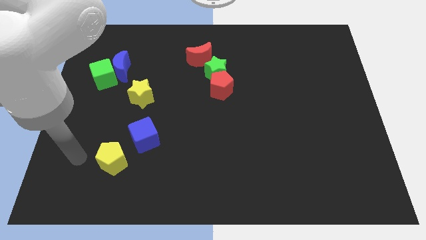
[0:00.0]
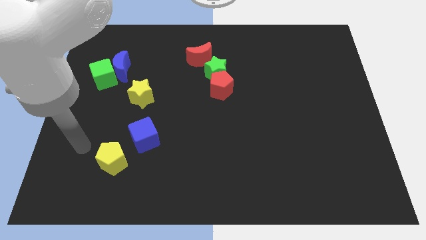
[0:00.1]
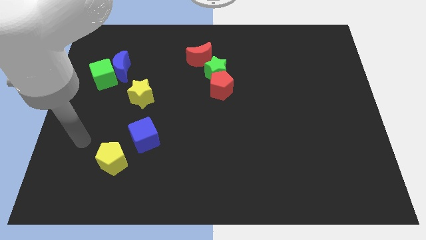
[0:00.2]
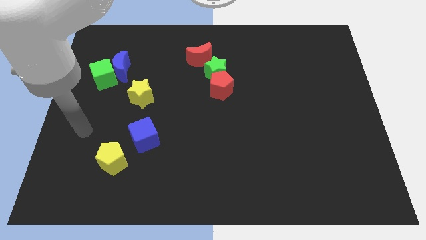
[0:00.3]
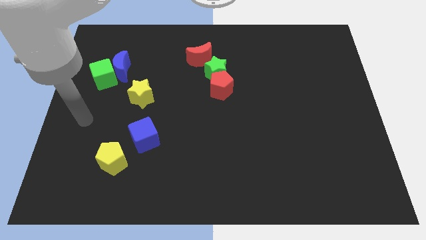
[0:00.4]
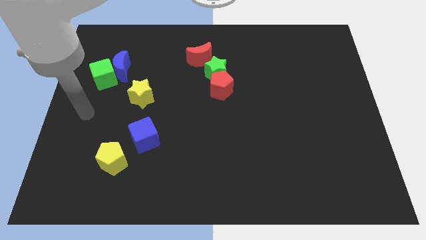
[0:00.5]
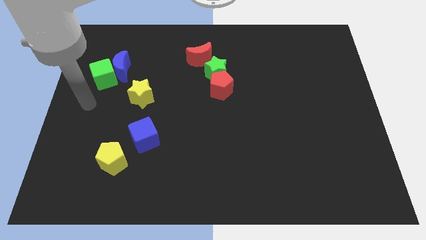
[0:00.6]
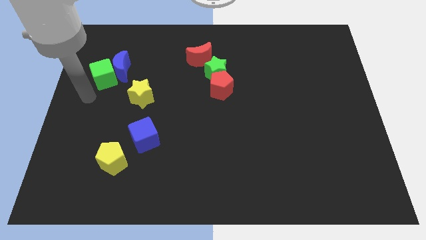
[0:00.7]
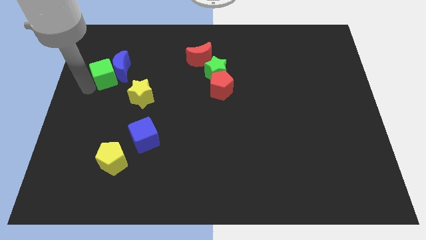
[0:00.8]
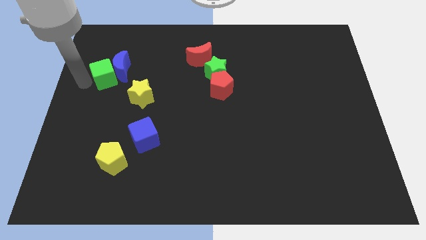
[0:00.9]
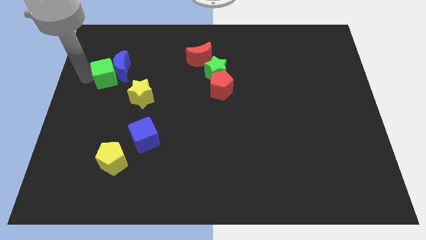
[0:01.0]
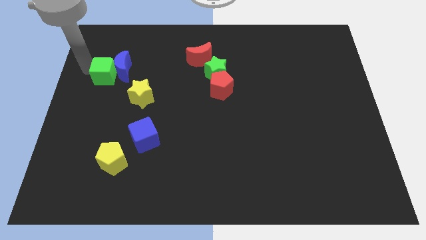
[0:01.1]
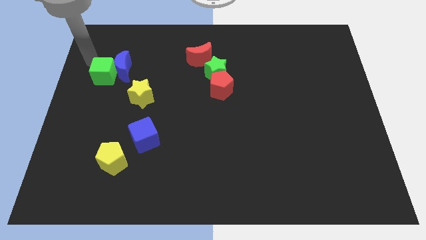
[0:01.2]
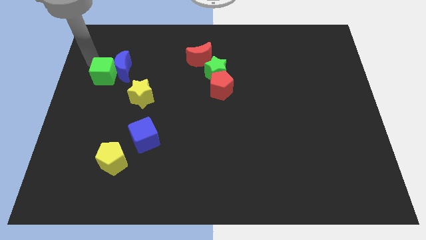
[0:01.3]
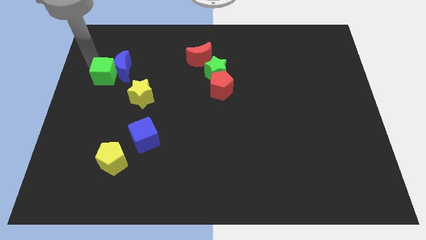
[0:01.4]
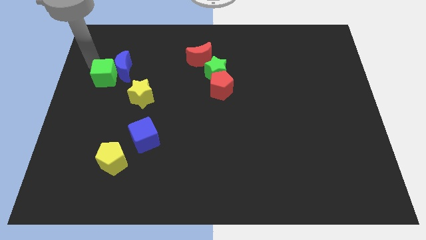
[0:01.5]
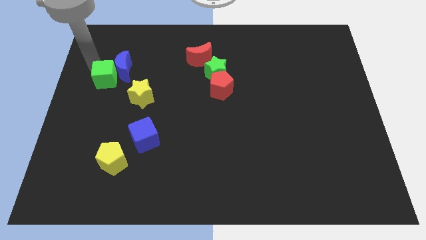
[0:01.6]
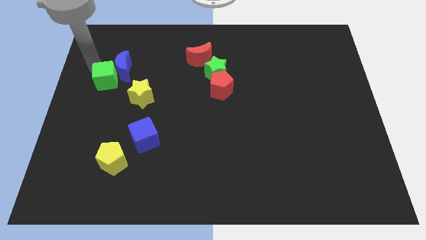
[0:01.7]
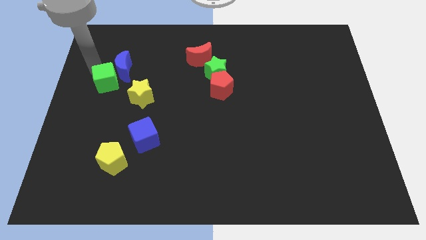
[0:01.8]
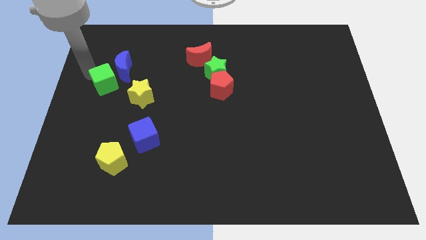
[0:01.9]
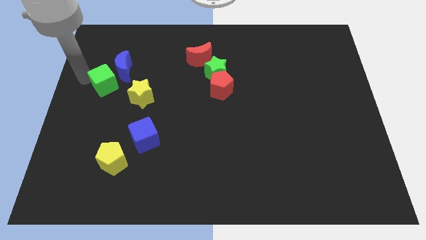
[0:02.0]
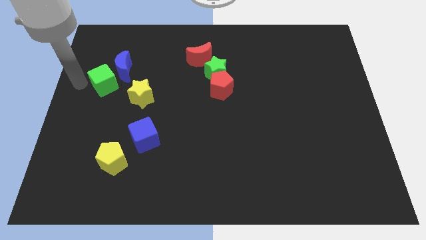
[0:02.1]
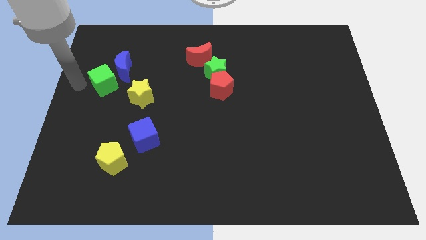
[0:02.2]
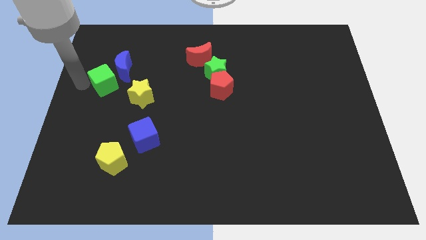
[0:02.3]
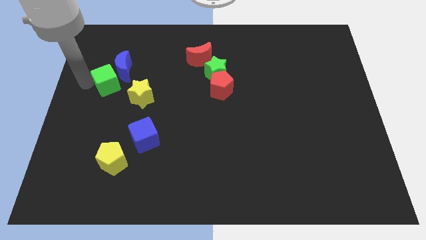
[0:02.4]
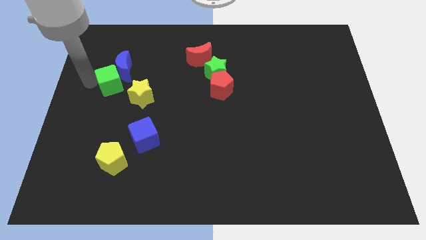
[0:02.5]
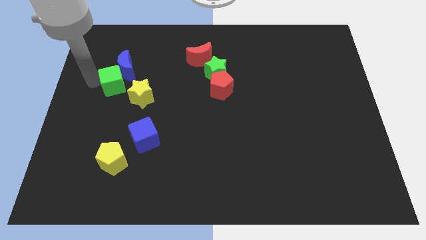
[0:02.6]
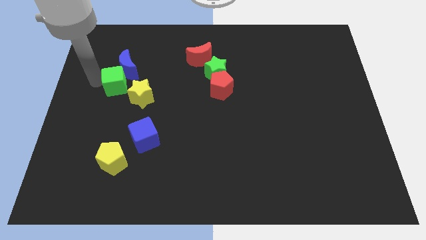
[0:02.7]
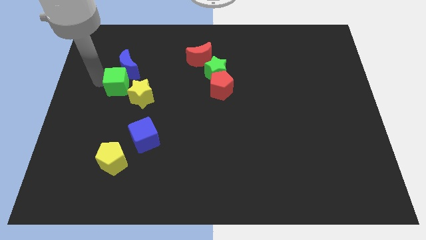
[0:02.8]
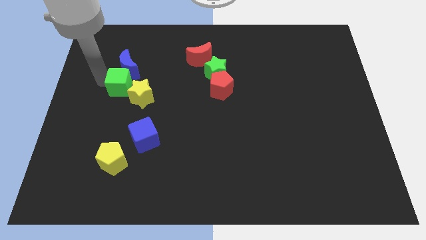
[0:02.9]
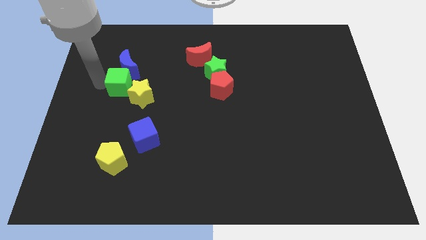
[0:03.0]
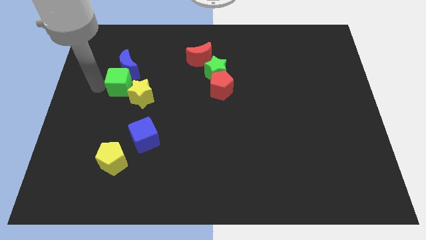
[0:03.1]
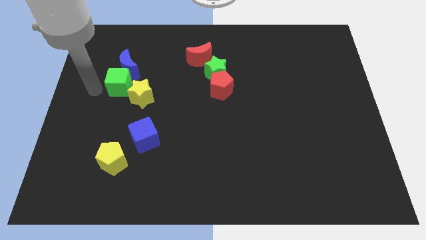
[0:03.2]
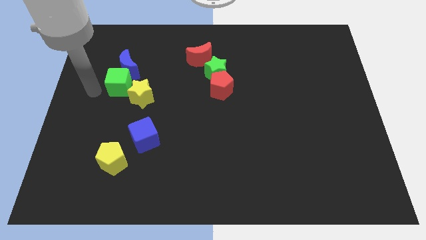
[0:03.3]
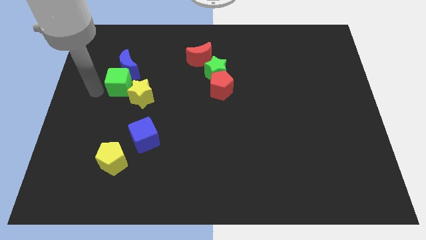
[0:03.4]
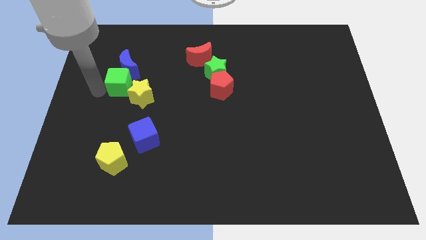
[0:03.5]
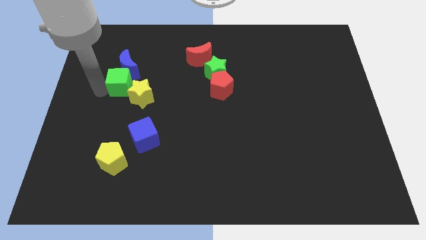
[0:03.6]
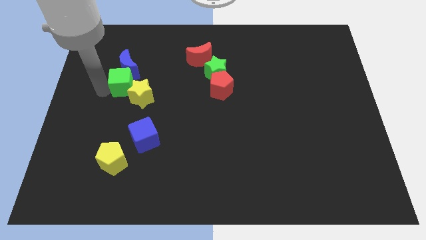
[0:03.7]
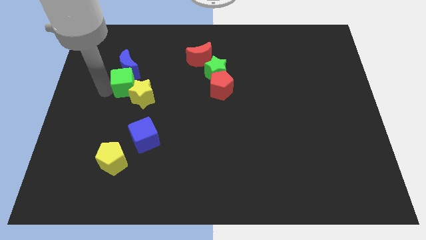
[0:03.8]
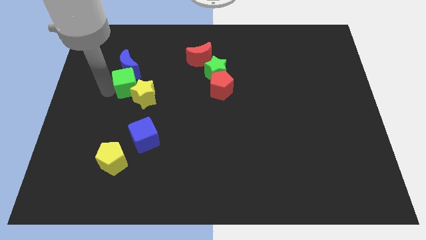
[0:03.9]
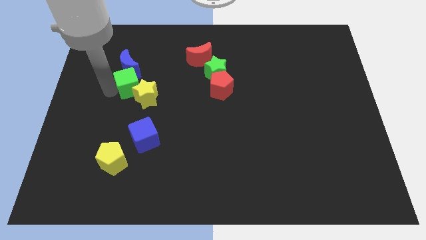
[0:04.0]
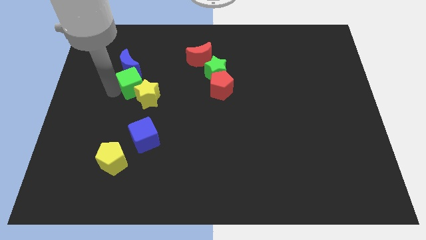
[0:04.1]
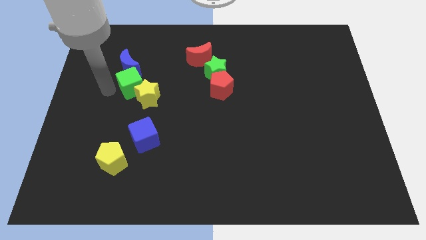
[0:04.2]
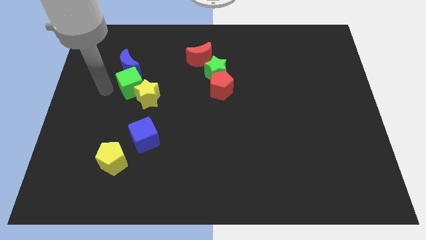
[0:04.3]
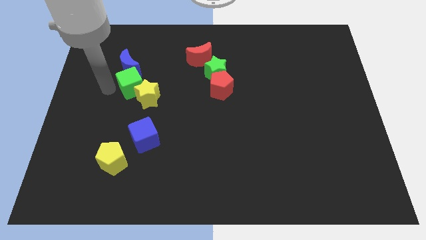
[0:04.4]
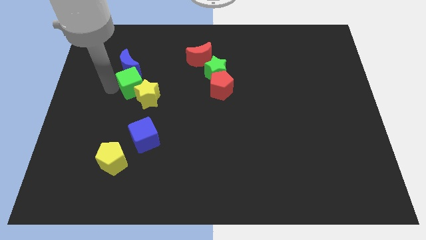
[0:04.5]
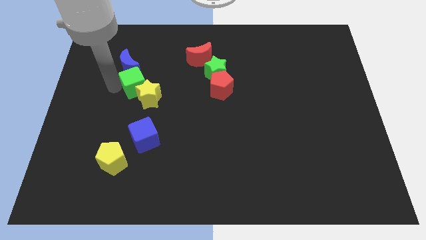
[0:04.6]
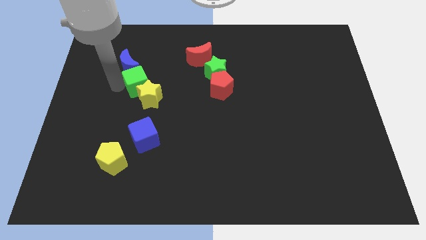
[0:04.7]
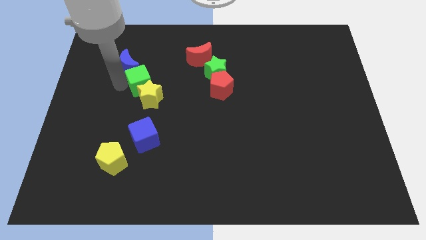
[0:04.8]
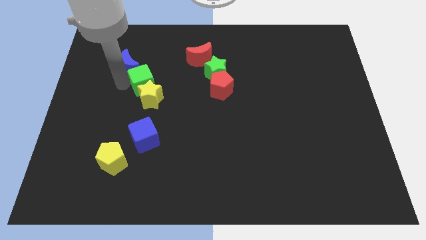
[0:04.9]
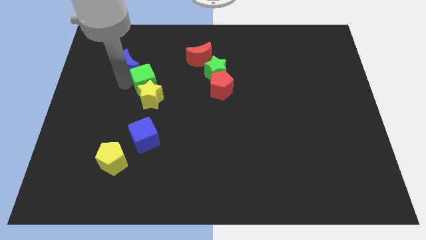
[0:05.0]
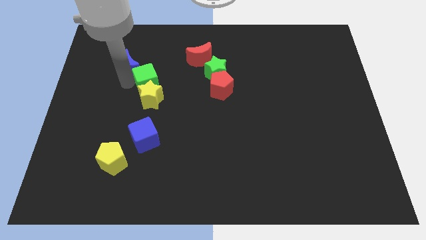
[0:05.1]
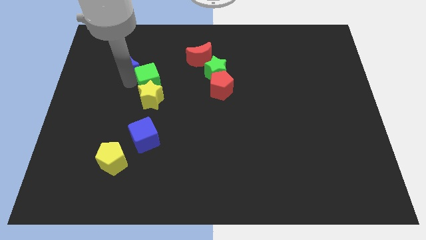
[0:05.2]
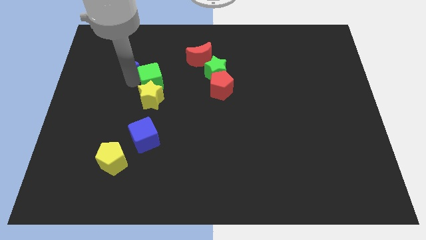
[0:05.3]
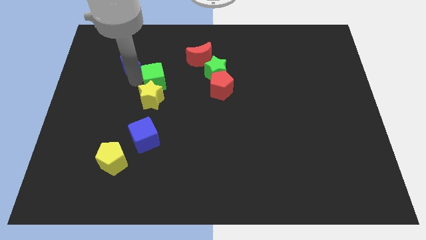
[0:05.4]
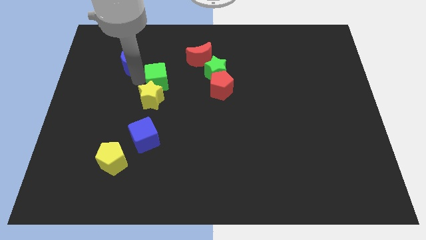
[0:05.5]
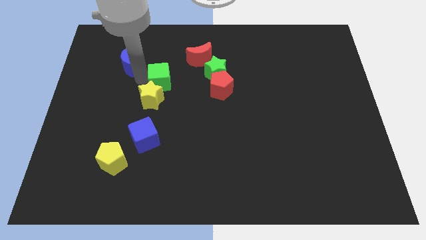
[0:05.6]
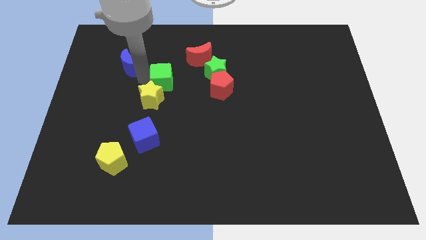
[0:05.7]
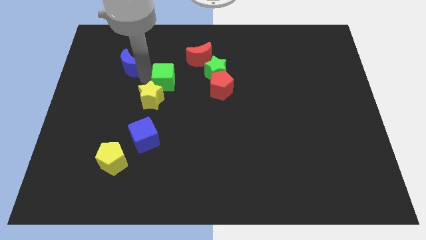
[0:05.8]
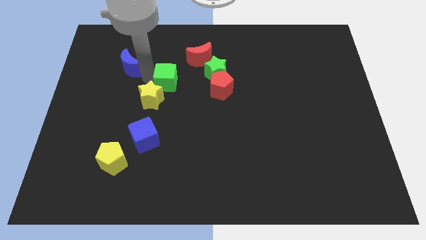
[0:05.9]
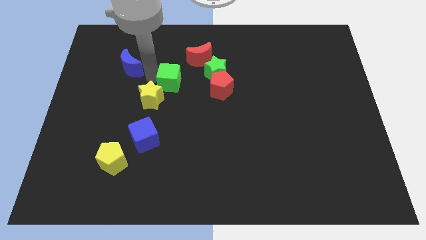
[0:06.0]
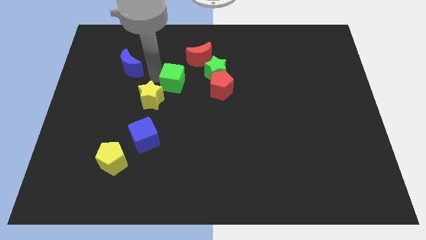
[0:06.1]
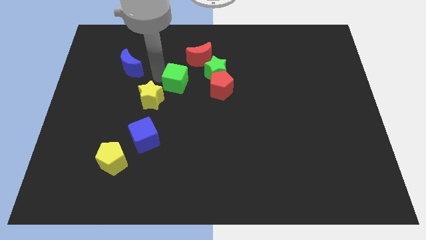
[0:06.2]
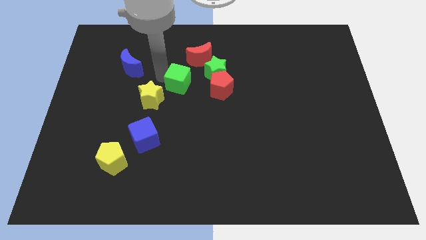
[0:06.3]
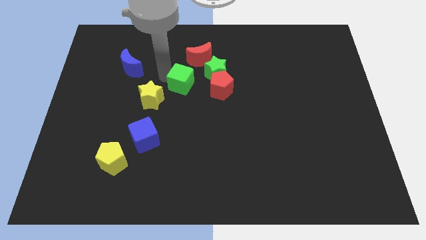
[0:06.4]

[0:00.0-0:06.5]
move the green cube below the red moon

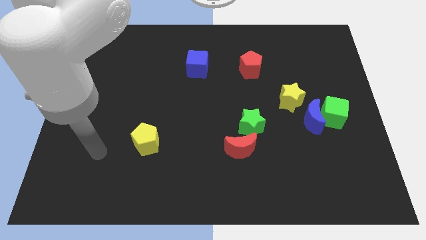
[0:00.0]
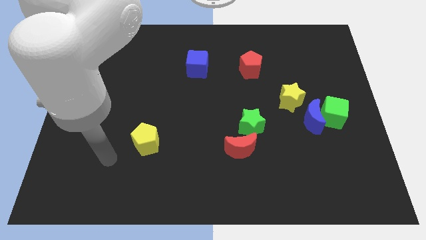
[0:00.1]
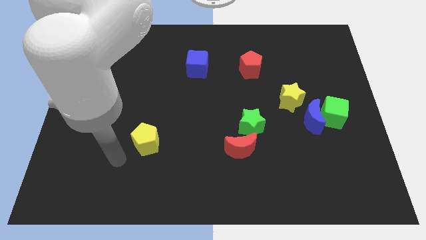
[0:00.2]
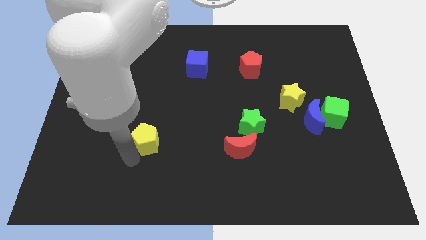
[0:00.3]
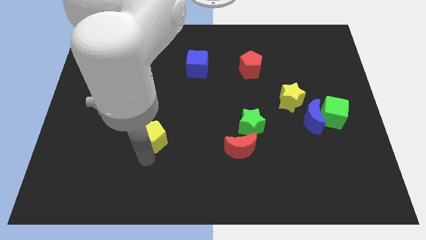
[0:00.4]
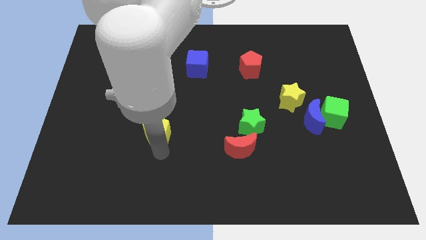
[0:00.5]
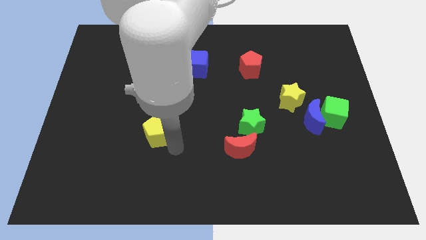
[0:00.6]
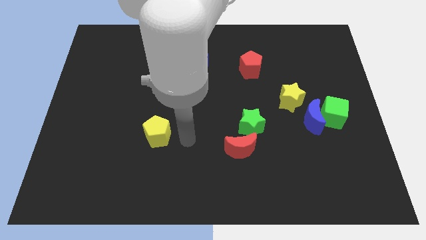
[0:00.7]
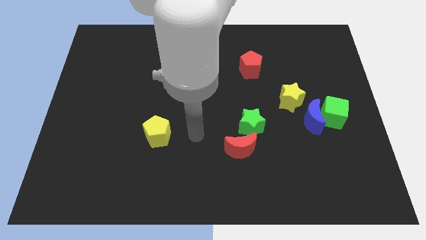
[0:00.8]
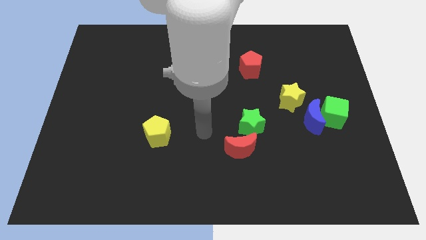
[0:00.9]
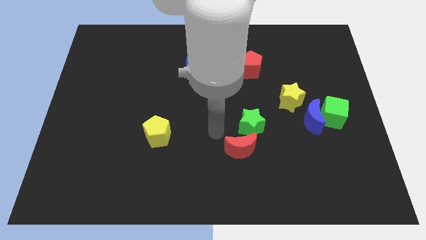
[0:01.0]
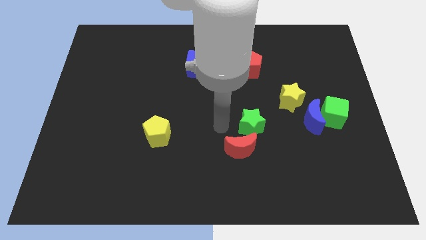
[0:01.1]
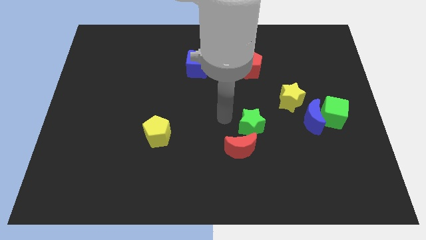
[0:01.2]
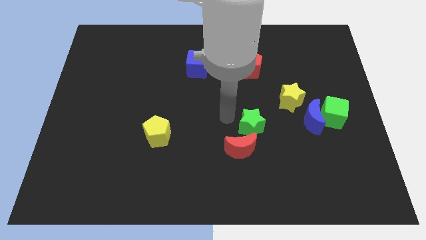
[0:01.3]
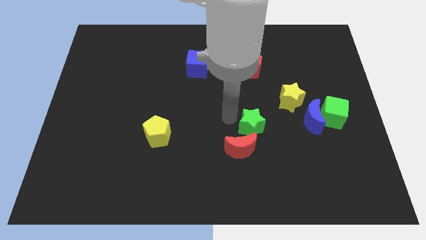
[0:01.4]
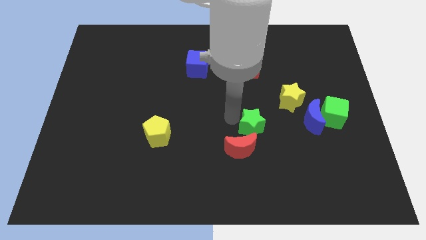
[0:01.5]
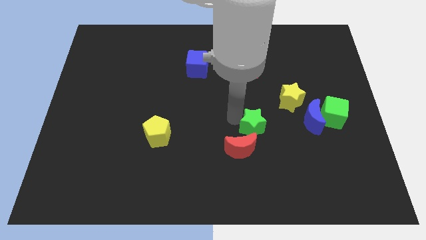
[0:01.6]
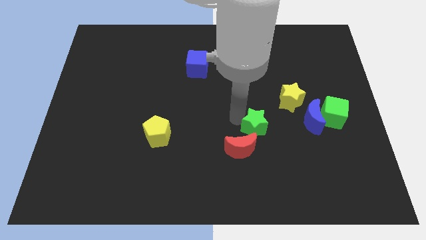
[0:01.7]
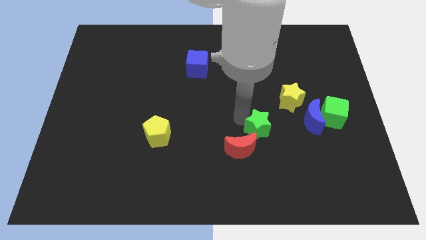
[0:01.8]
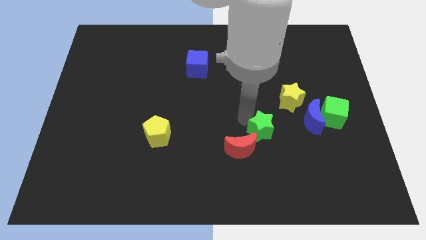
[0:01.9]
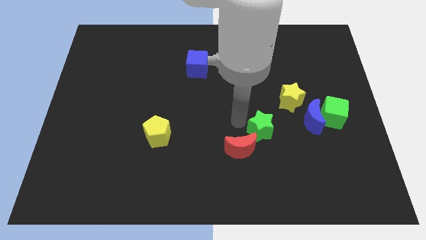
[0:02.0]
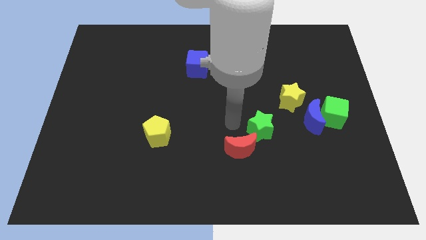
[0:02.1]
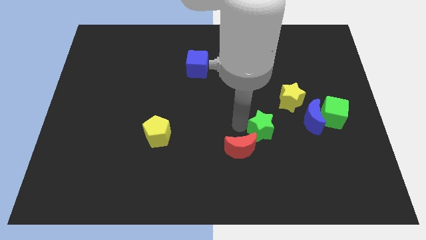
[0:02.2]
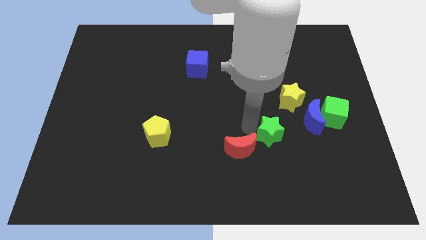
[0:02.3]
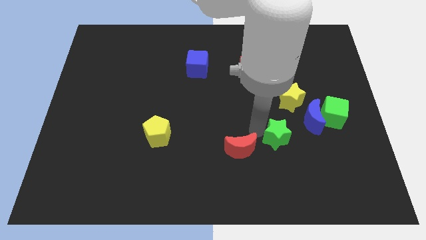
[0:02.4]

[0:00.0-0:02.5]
move the green star below the yellow star
